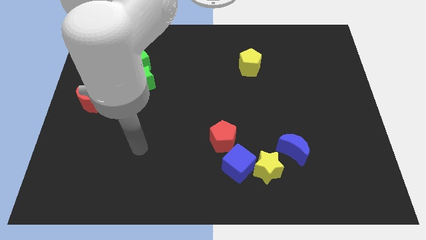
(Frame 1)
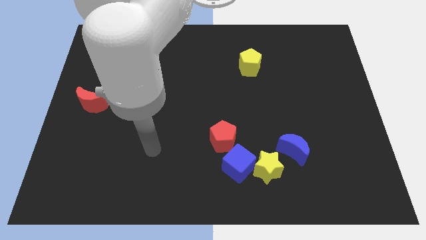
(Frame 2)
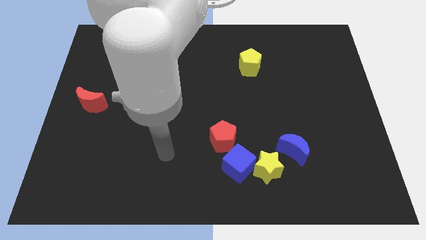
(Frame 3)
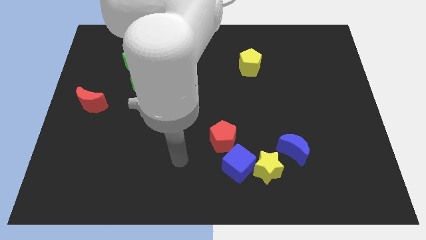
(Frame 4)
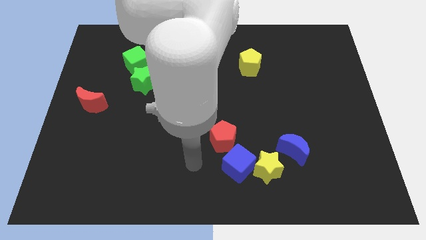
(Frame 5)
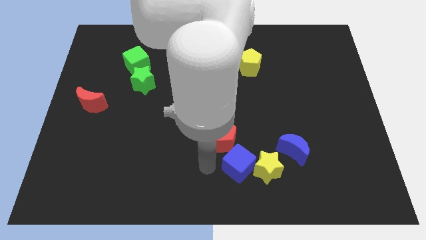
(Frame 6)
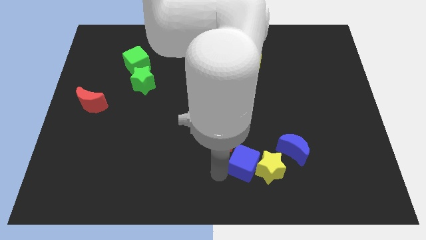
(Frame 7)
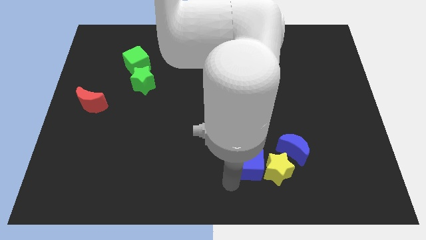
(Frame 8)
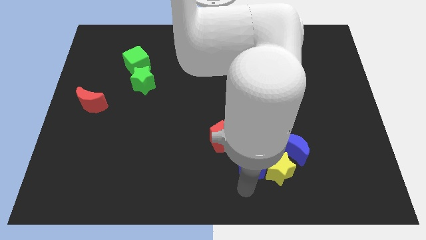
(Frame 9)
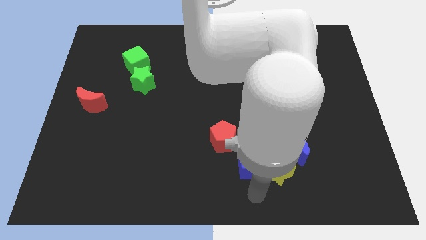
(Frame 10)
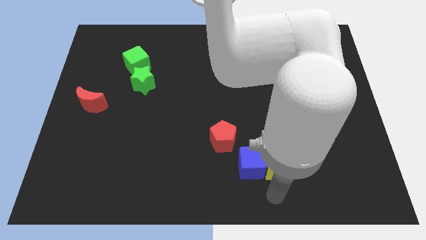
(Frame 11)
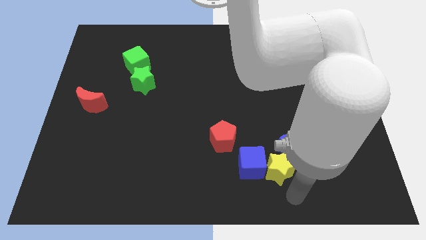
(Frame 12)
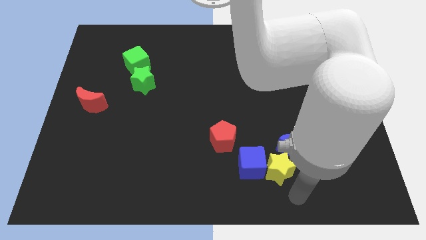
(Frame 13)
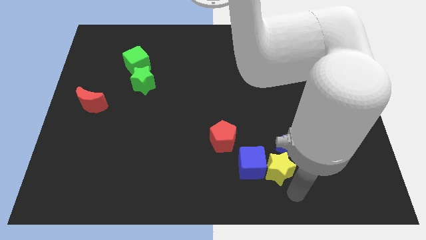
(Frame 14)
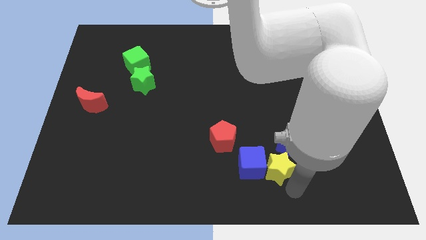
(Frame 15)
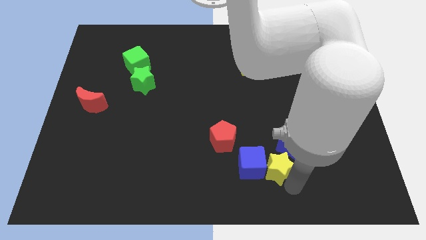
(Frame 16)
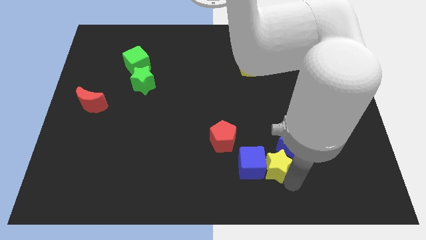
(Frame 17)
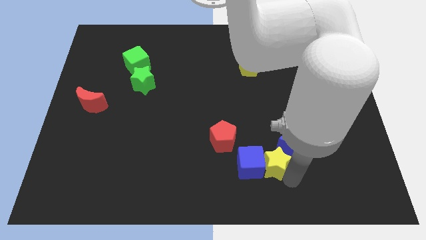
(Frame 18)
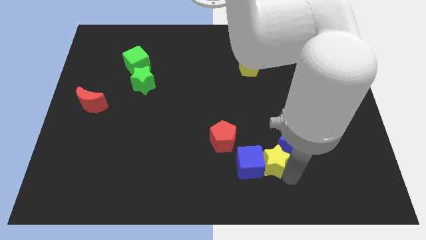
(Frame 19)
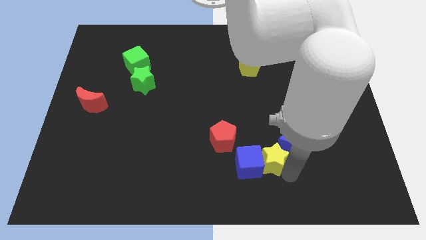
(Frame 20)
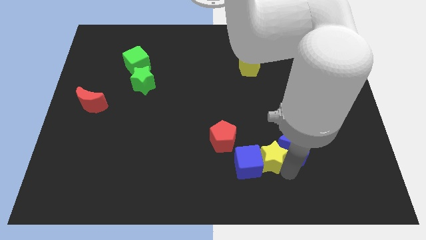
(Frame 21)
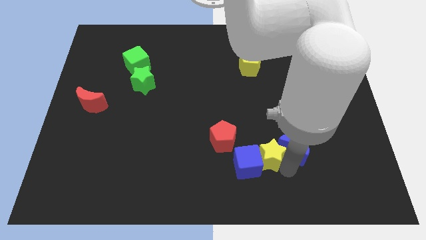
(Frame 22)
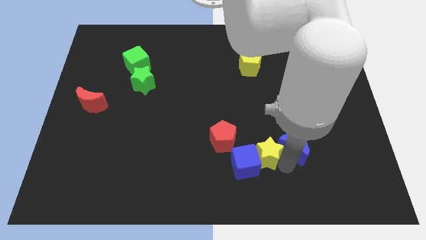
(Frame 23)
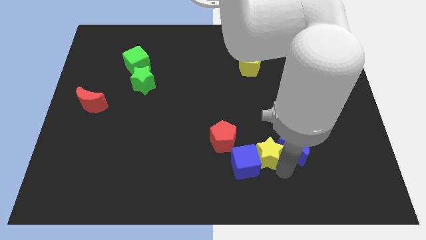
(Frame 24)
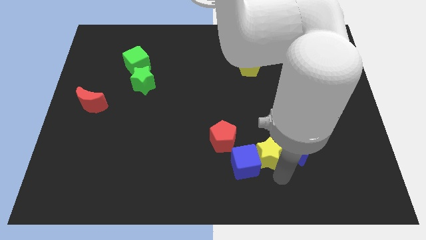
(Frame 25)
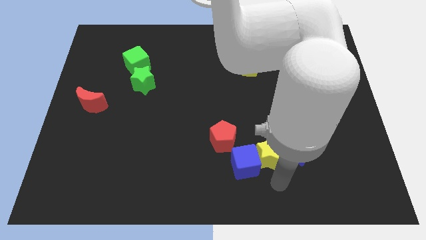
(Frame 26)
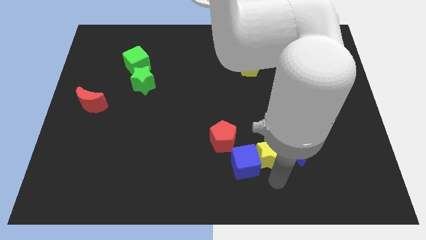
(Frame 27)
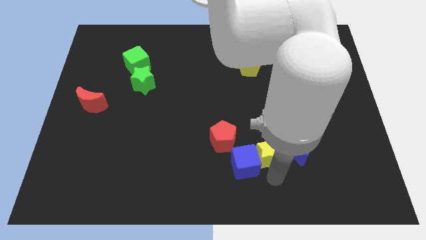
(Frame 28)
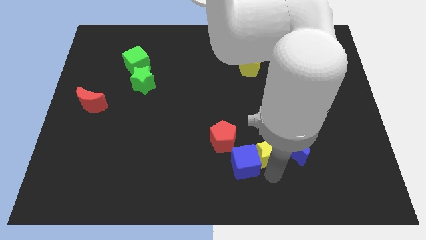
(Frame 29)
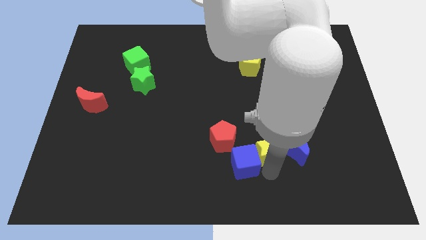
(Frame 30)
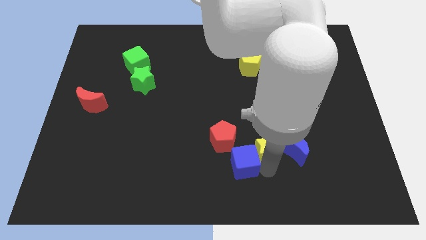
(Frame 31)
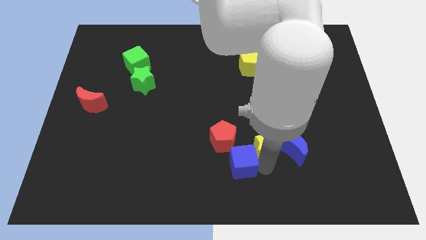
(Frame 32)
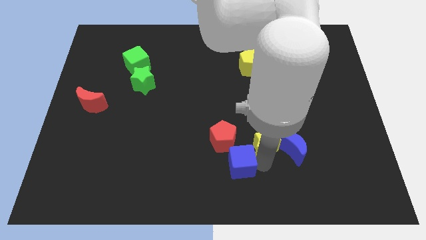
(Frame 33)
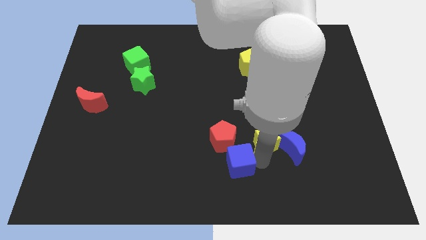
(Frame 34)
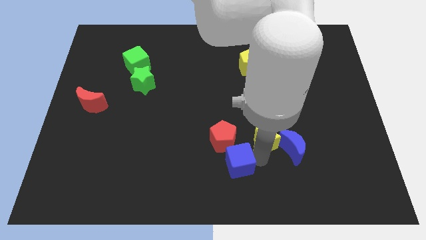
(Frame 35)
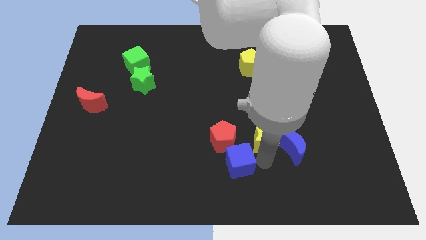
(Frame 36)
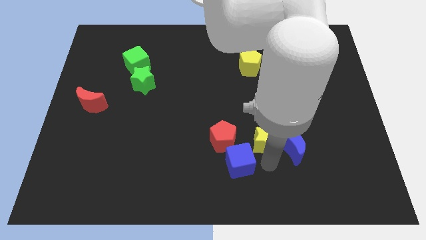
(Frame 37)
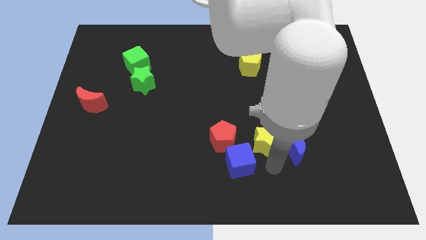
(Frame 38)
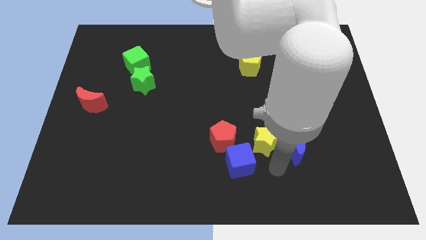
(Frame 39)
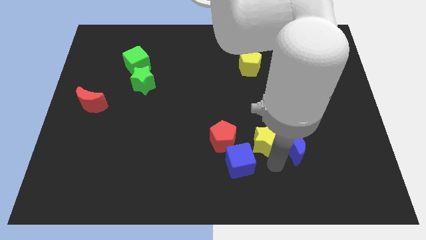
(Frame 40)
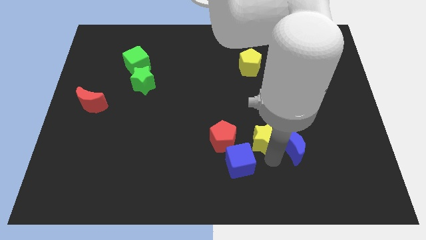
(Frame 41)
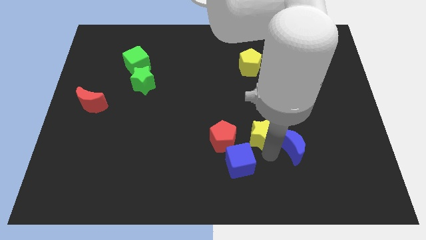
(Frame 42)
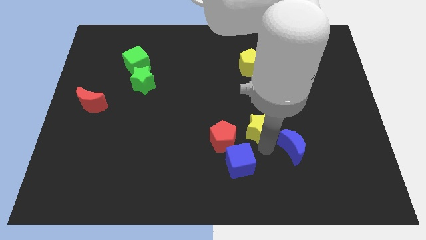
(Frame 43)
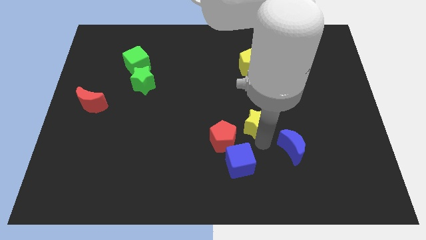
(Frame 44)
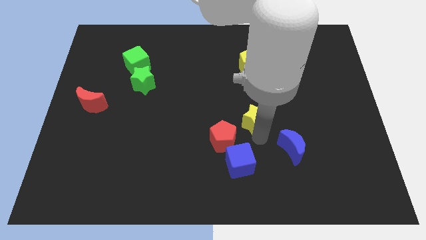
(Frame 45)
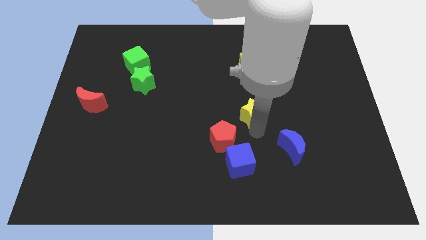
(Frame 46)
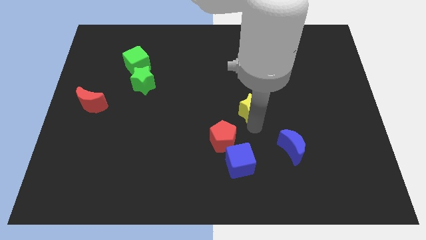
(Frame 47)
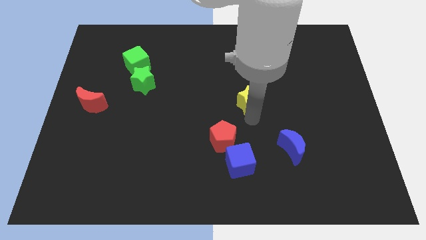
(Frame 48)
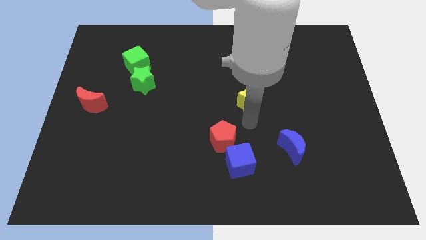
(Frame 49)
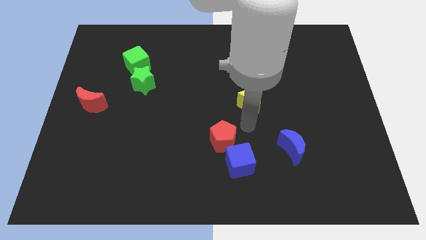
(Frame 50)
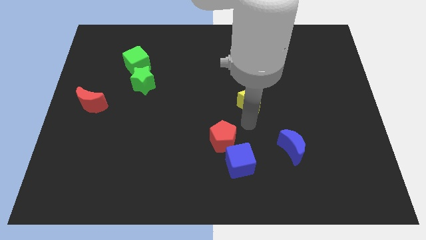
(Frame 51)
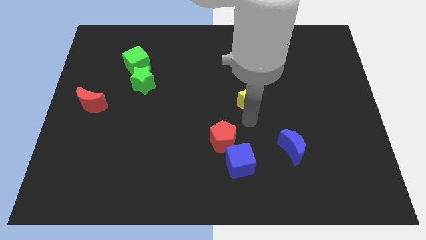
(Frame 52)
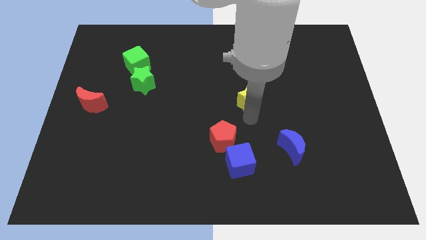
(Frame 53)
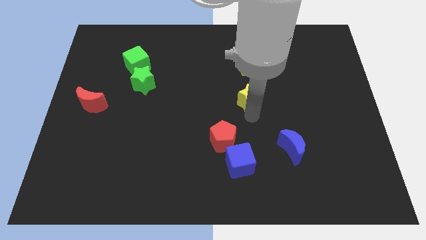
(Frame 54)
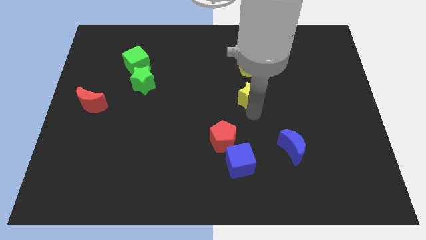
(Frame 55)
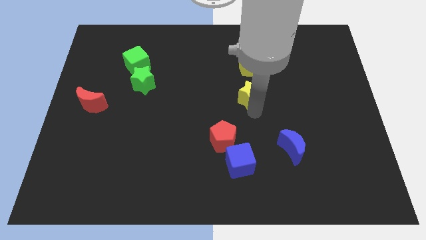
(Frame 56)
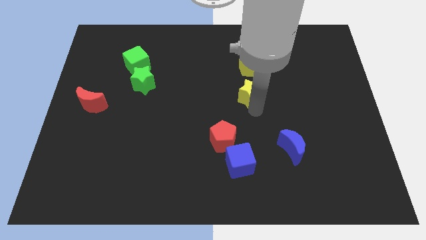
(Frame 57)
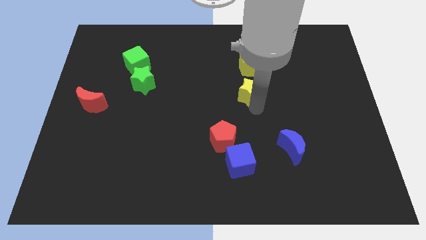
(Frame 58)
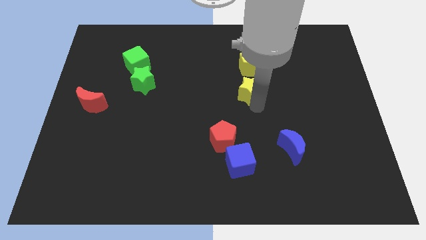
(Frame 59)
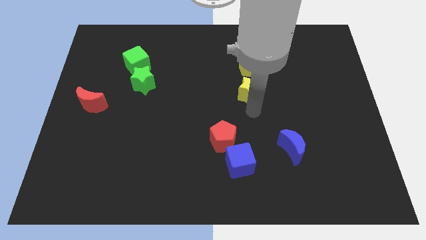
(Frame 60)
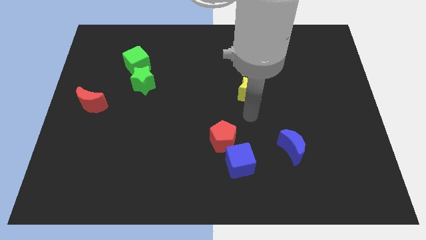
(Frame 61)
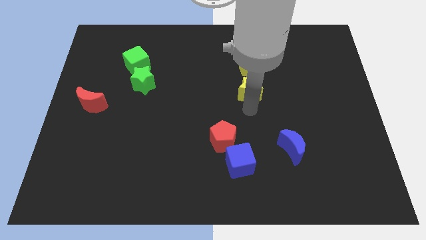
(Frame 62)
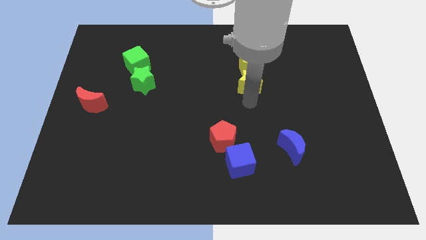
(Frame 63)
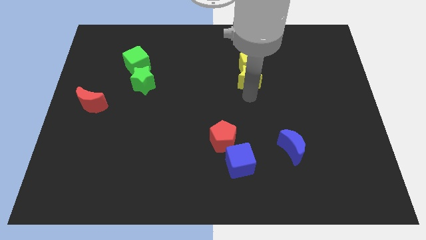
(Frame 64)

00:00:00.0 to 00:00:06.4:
put the yellow star to the yellow pentagon

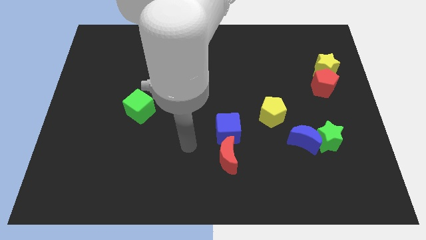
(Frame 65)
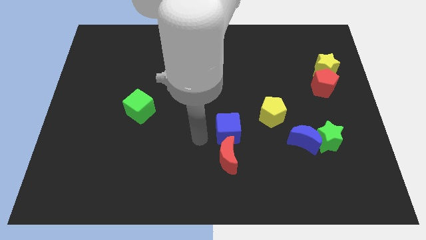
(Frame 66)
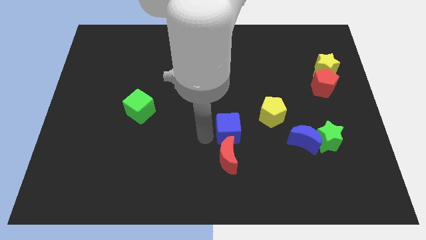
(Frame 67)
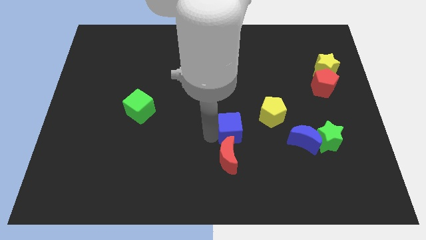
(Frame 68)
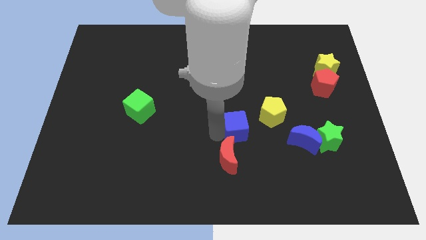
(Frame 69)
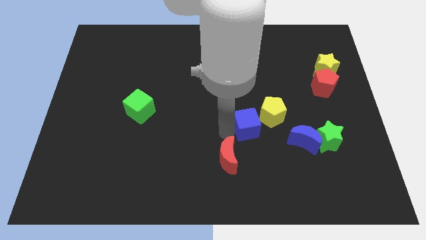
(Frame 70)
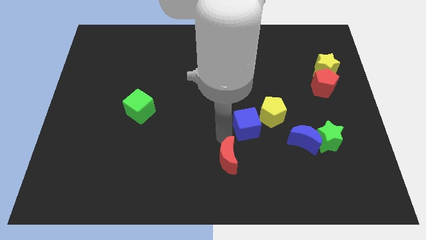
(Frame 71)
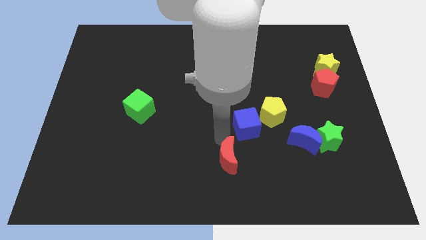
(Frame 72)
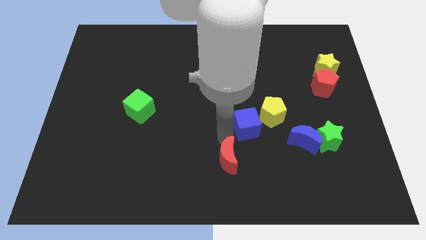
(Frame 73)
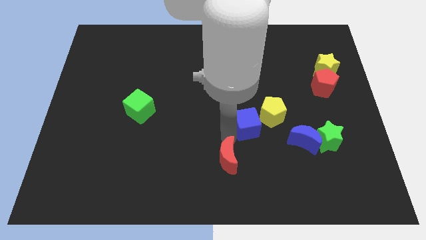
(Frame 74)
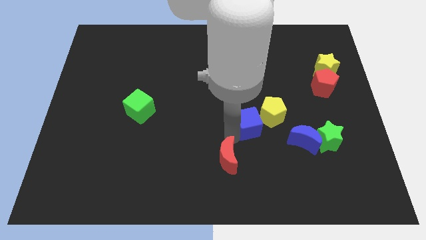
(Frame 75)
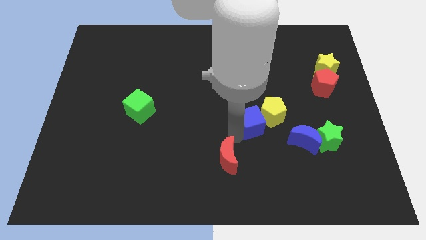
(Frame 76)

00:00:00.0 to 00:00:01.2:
push the blue cube close to the yellow pentagon
